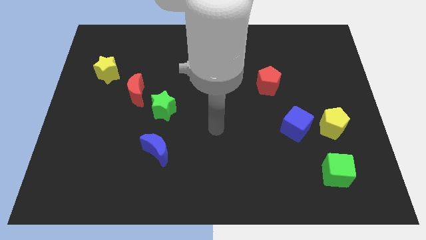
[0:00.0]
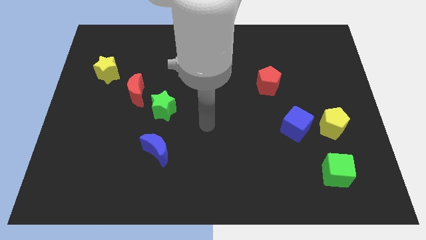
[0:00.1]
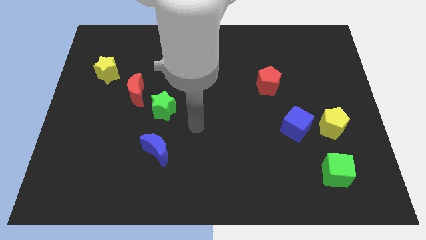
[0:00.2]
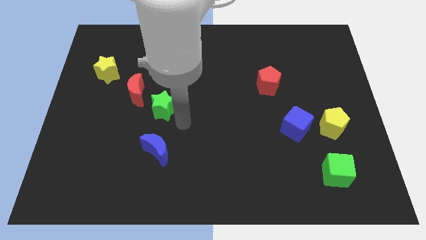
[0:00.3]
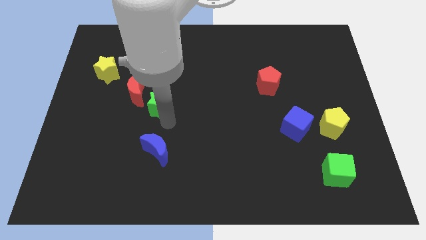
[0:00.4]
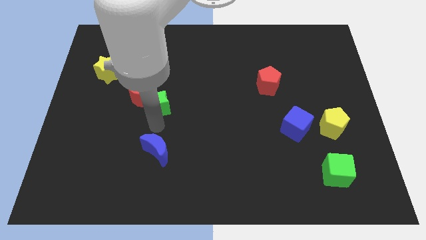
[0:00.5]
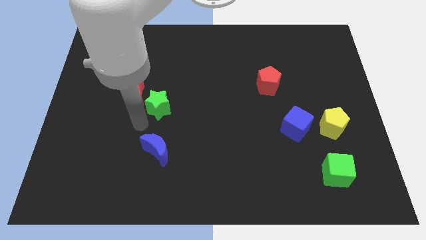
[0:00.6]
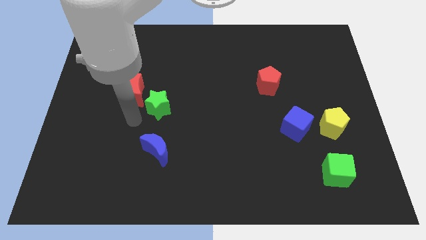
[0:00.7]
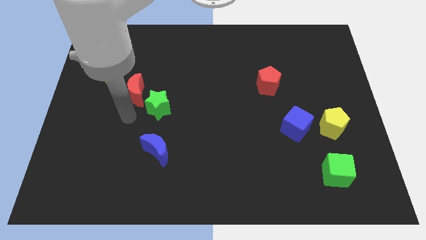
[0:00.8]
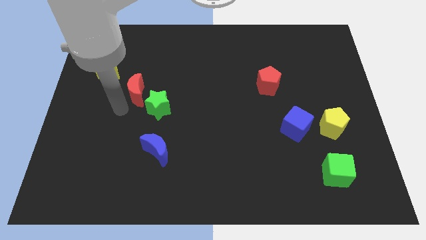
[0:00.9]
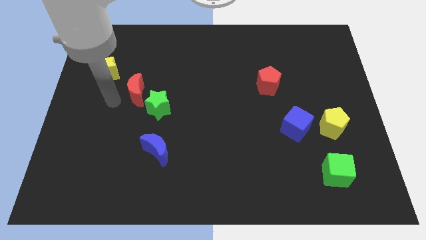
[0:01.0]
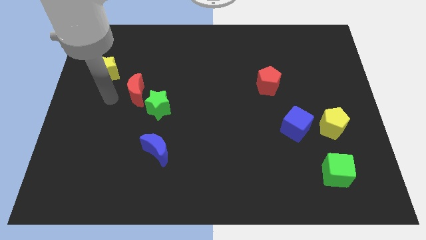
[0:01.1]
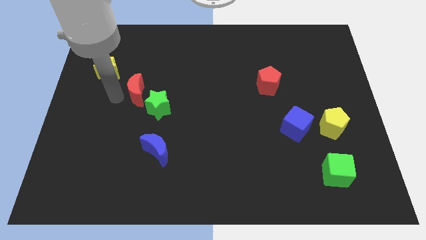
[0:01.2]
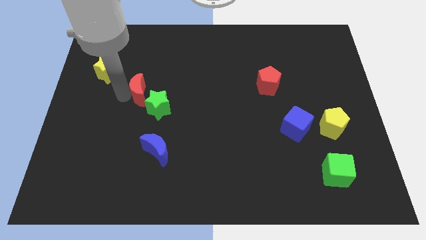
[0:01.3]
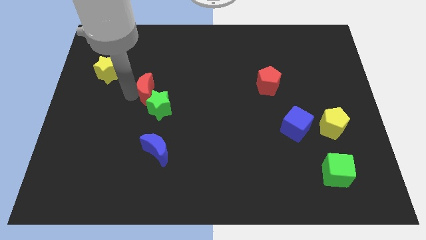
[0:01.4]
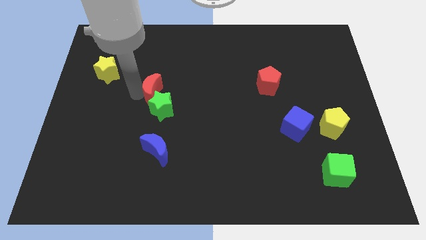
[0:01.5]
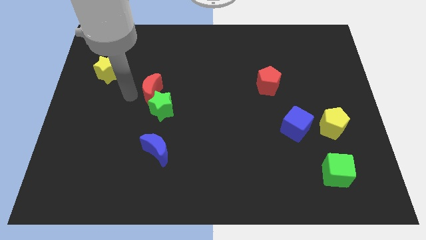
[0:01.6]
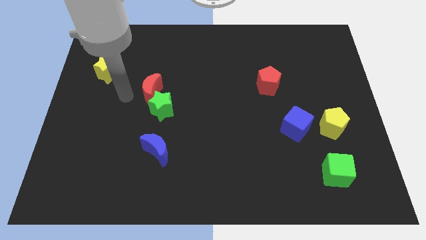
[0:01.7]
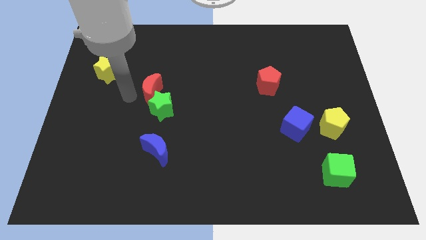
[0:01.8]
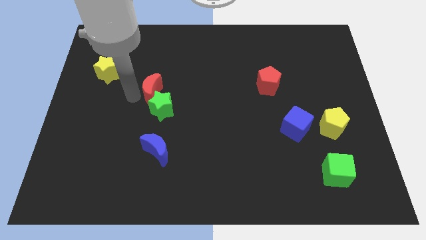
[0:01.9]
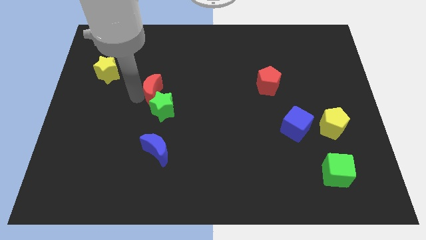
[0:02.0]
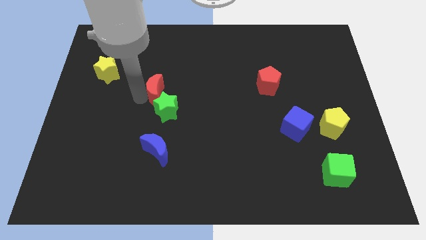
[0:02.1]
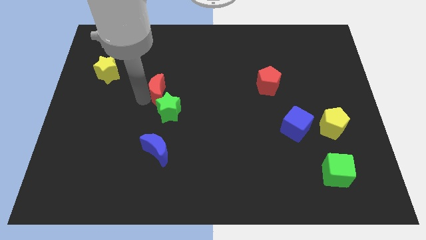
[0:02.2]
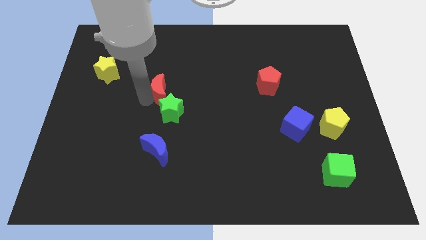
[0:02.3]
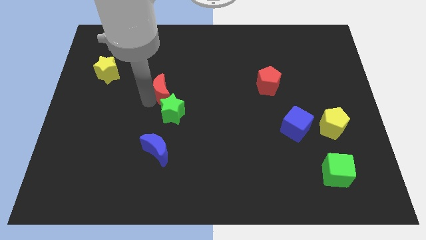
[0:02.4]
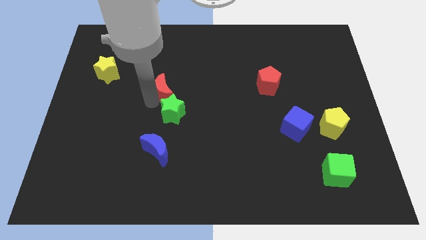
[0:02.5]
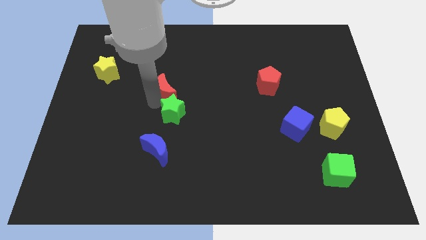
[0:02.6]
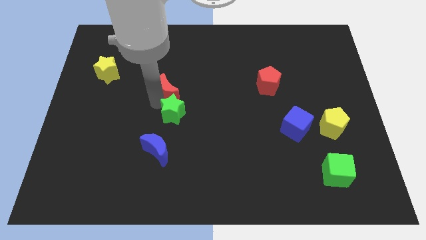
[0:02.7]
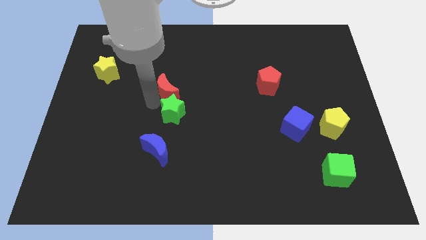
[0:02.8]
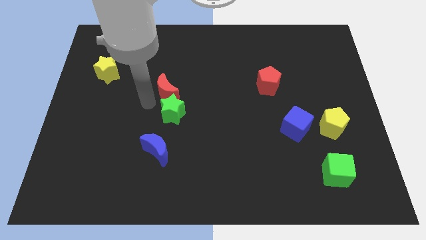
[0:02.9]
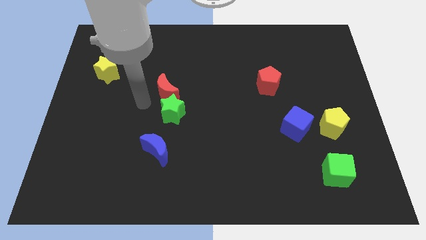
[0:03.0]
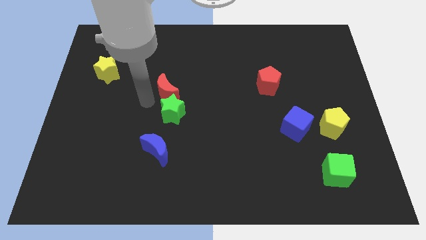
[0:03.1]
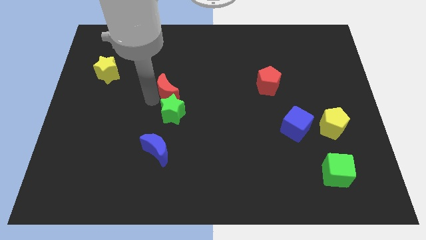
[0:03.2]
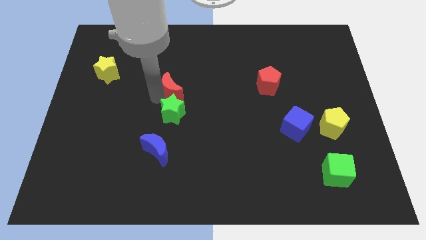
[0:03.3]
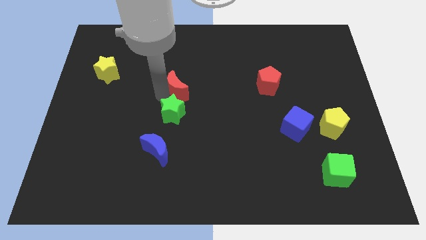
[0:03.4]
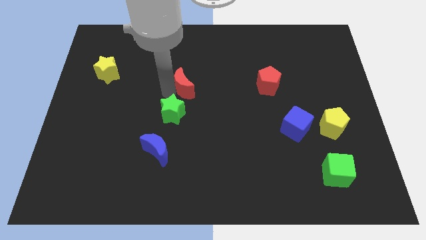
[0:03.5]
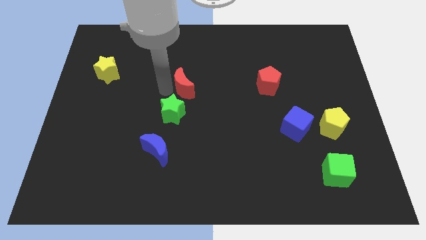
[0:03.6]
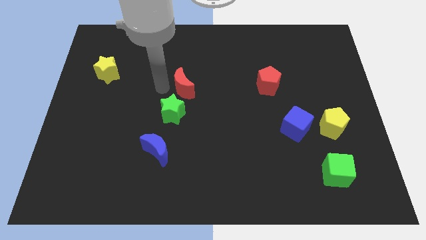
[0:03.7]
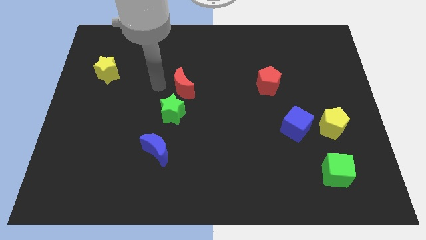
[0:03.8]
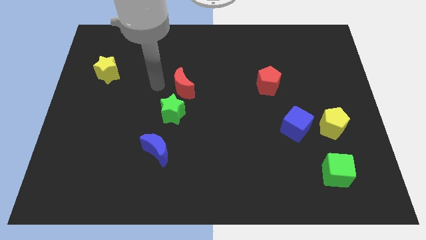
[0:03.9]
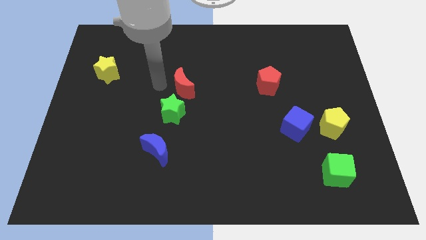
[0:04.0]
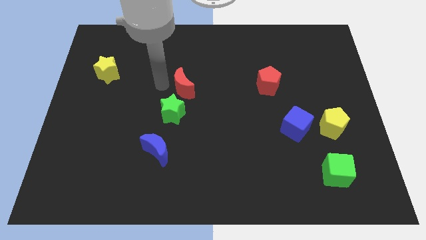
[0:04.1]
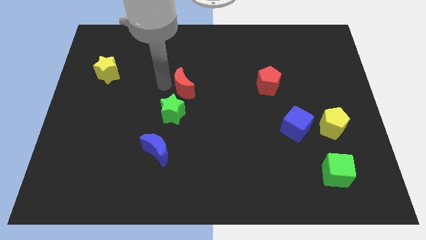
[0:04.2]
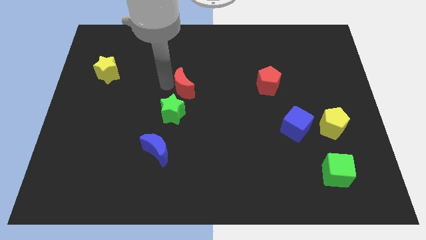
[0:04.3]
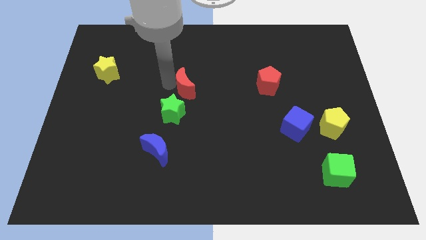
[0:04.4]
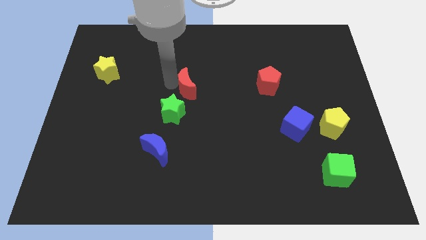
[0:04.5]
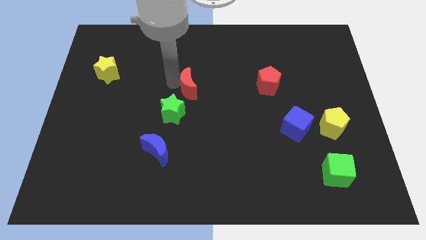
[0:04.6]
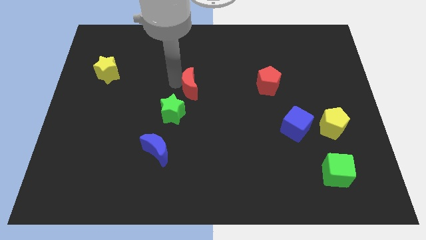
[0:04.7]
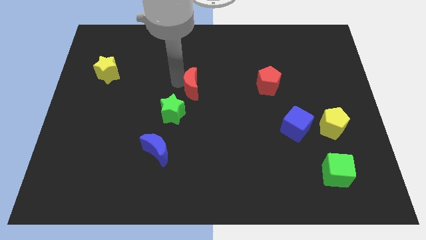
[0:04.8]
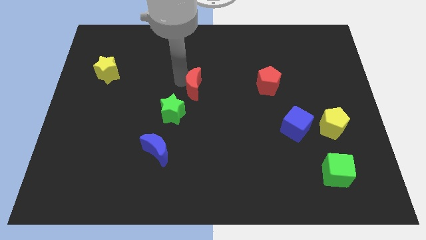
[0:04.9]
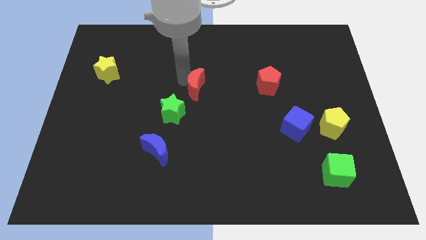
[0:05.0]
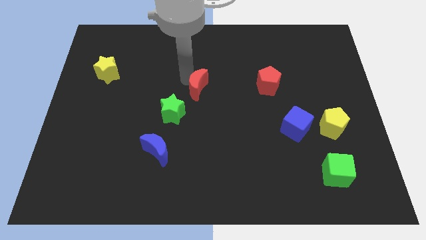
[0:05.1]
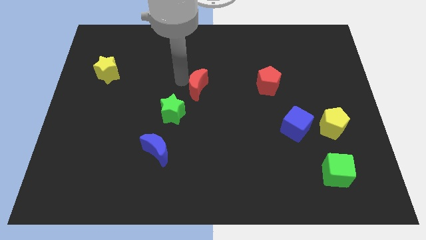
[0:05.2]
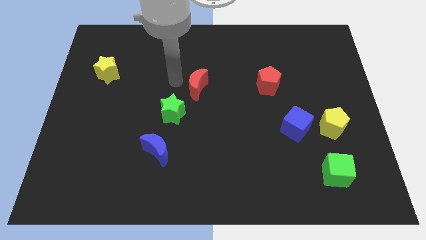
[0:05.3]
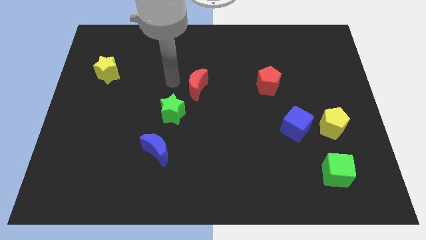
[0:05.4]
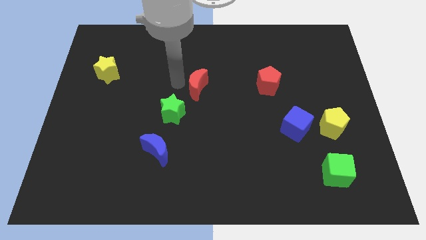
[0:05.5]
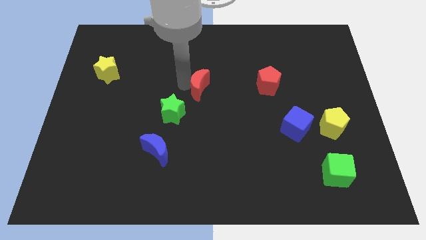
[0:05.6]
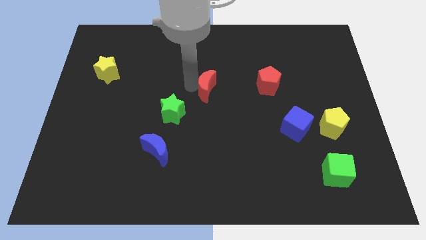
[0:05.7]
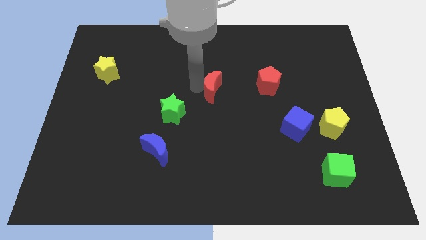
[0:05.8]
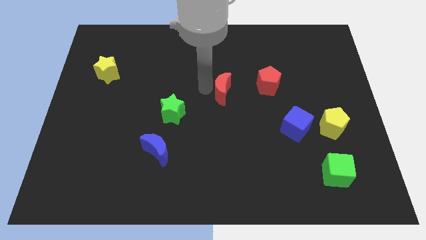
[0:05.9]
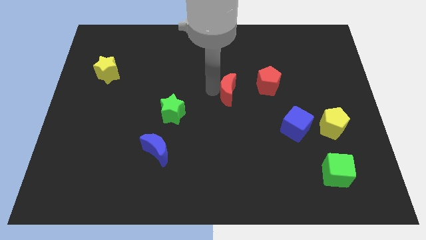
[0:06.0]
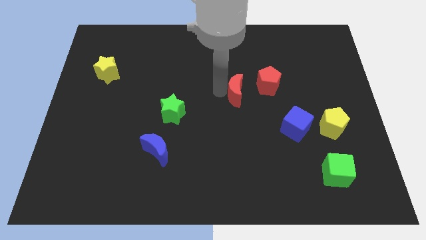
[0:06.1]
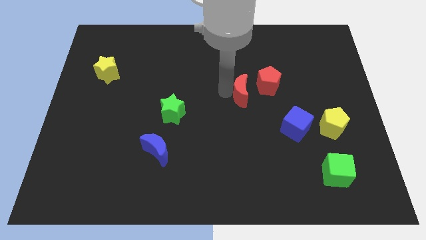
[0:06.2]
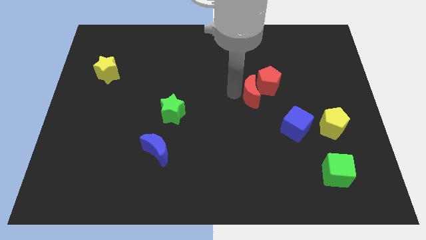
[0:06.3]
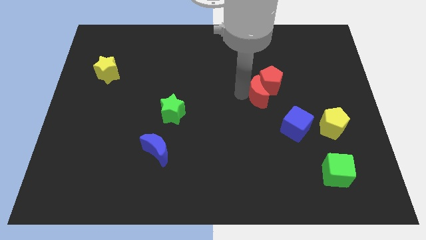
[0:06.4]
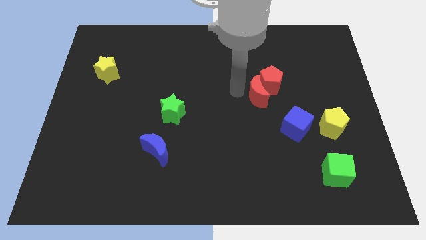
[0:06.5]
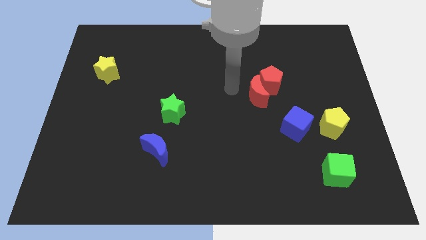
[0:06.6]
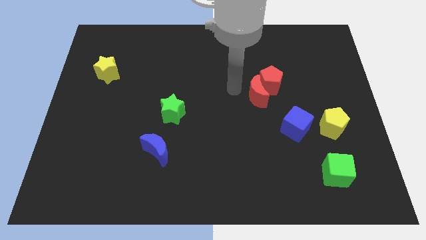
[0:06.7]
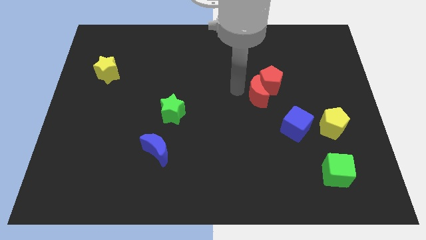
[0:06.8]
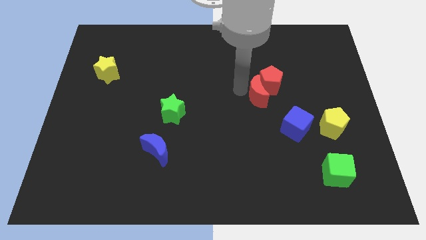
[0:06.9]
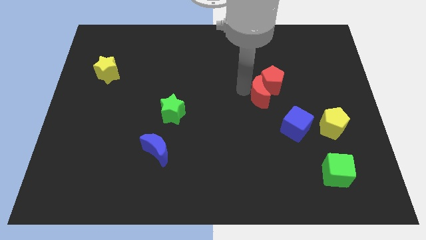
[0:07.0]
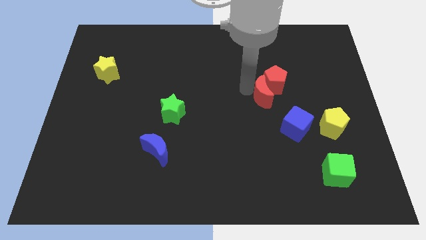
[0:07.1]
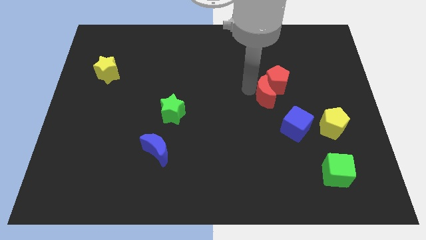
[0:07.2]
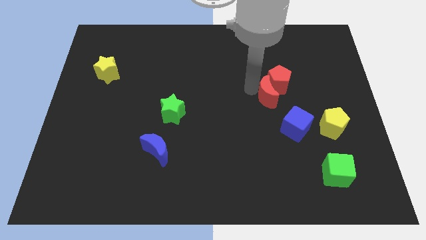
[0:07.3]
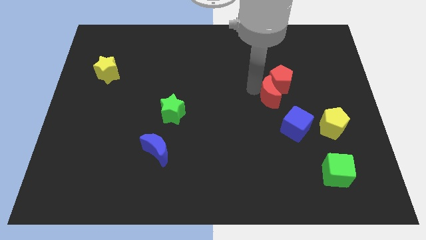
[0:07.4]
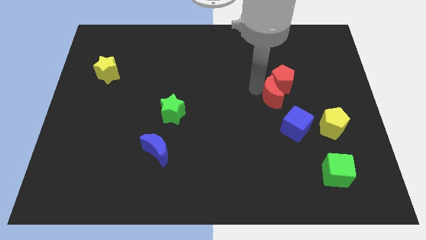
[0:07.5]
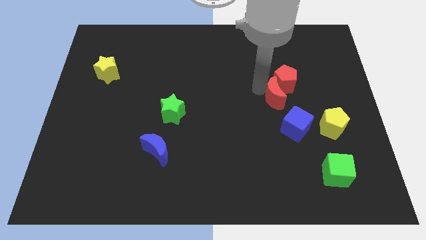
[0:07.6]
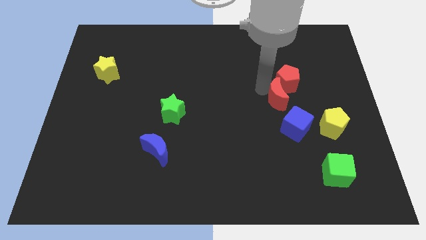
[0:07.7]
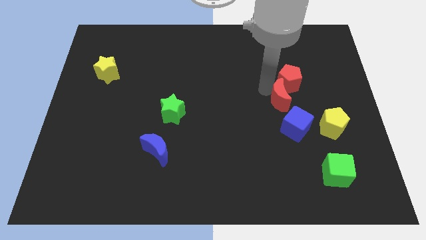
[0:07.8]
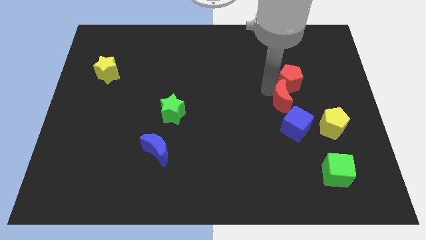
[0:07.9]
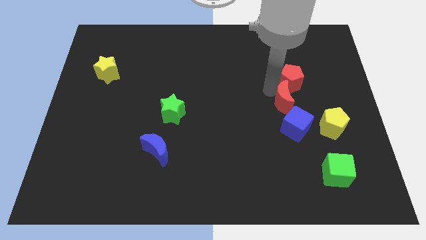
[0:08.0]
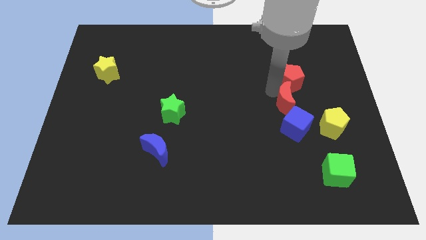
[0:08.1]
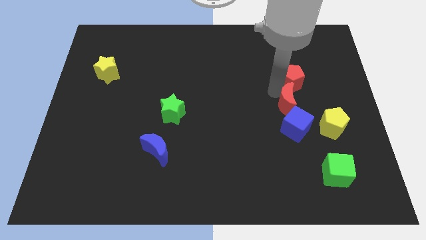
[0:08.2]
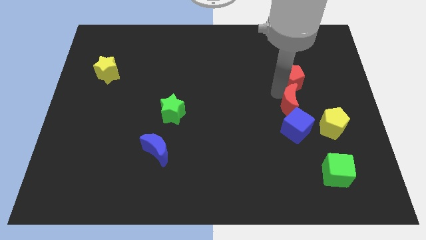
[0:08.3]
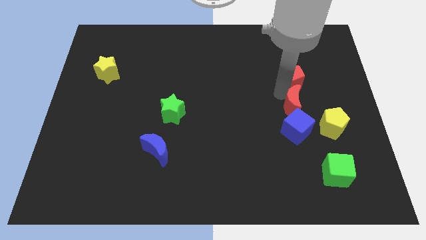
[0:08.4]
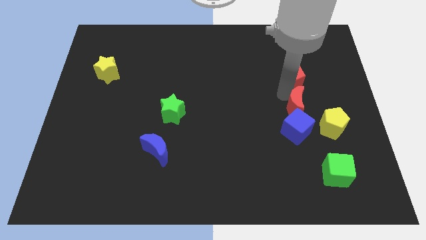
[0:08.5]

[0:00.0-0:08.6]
move the red moon to the top right of the blue cube
